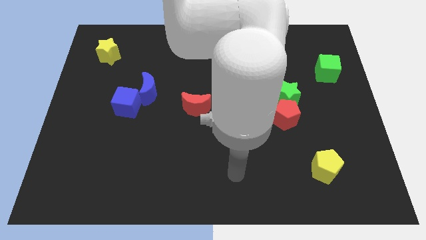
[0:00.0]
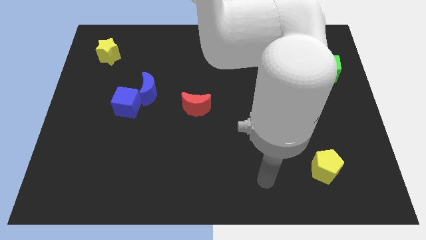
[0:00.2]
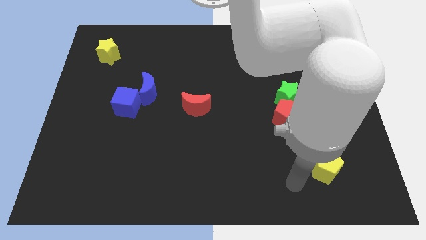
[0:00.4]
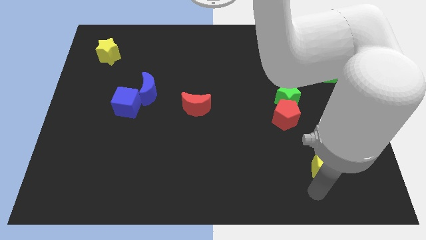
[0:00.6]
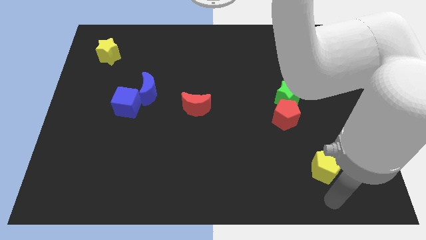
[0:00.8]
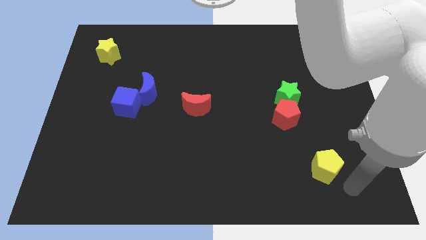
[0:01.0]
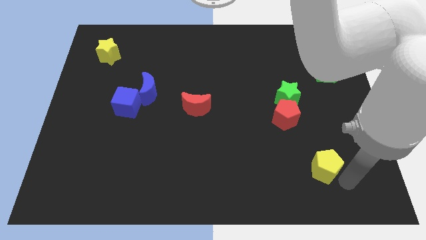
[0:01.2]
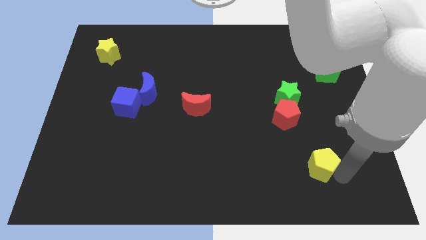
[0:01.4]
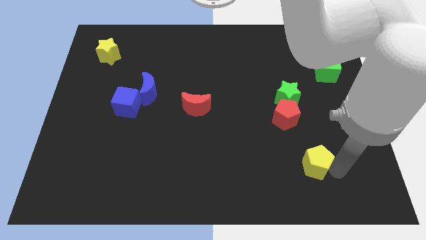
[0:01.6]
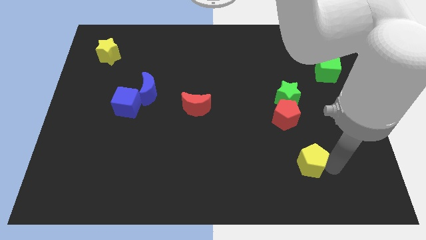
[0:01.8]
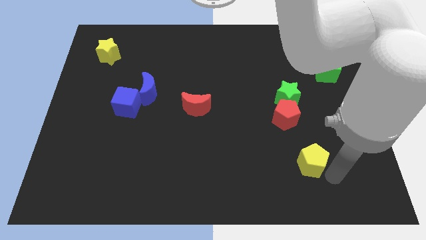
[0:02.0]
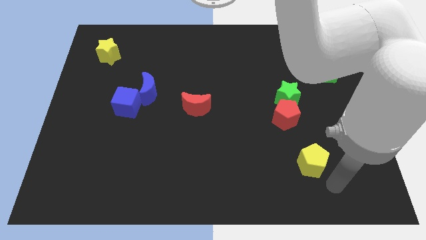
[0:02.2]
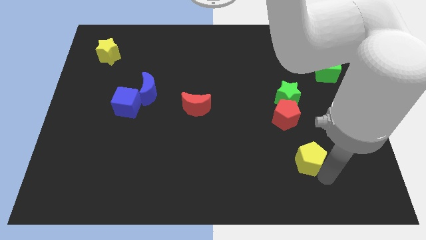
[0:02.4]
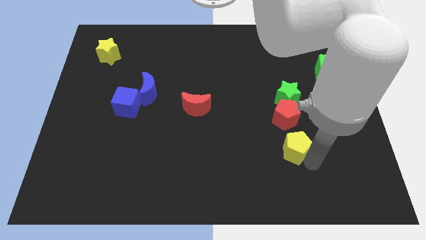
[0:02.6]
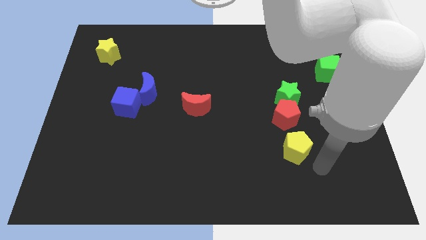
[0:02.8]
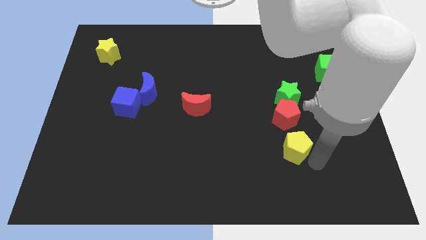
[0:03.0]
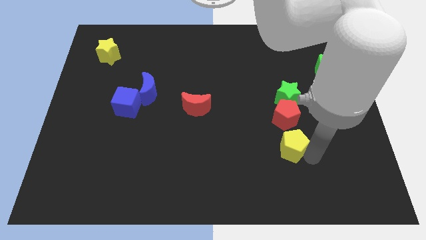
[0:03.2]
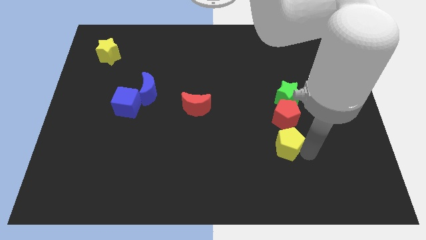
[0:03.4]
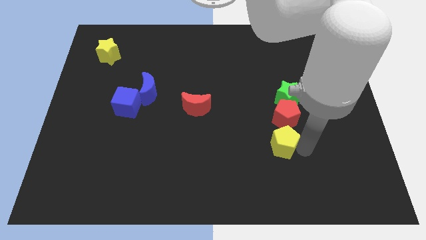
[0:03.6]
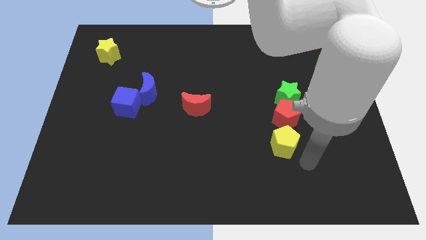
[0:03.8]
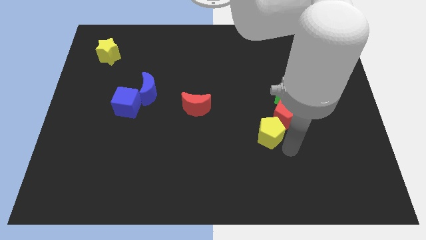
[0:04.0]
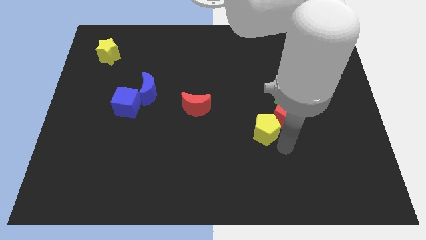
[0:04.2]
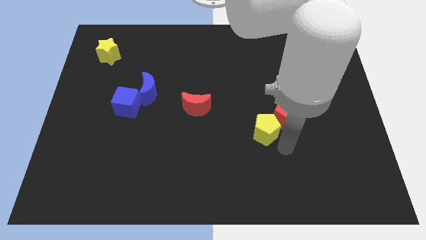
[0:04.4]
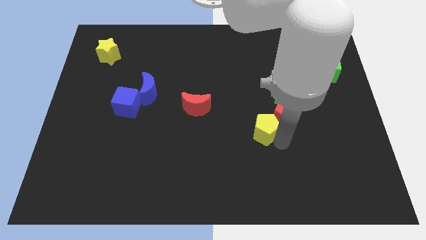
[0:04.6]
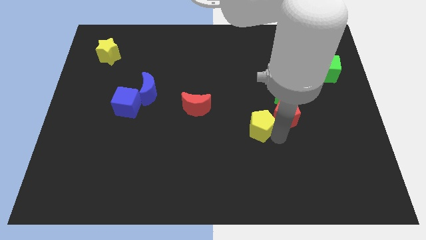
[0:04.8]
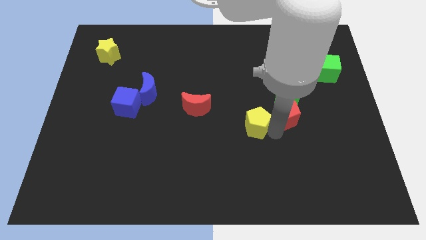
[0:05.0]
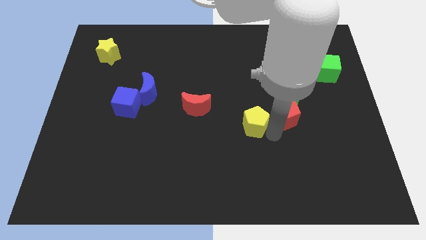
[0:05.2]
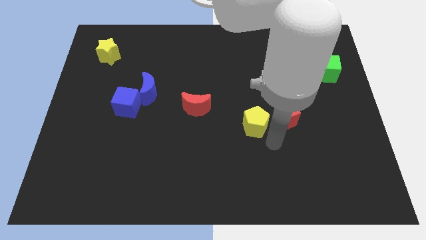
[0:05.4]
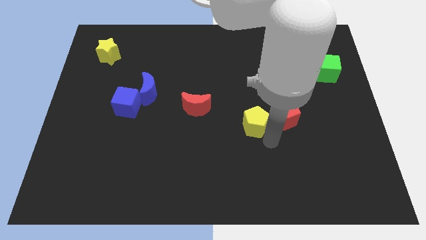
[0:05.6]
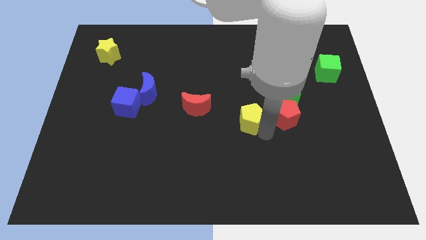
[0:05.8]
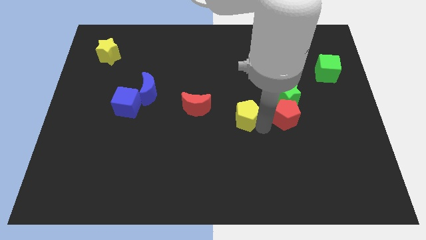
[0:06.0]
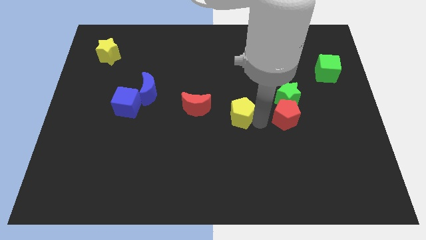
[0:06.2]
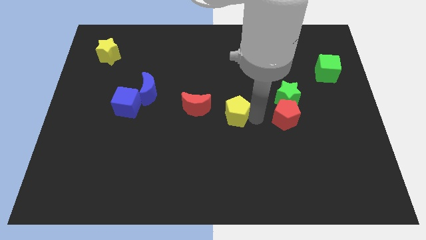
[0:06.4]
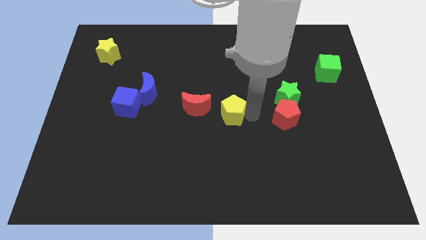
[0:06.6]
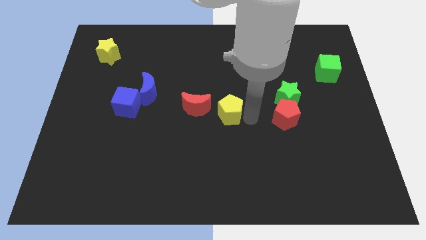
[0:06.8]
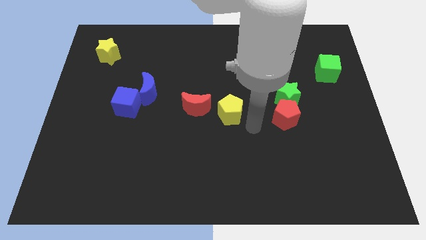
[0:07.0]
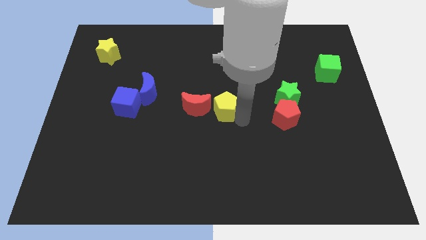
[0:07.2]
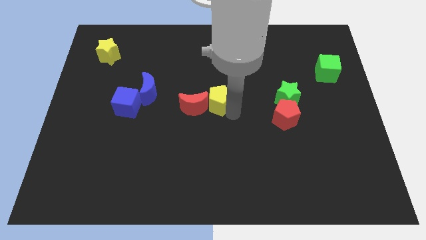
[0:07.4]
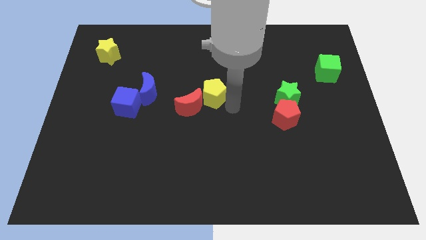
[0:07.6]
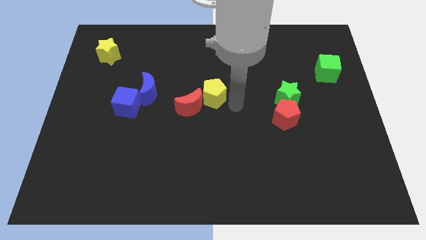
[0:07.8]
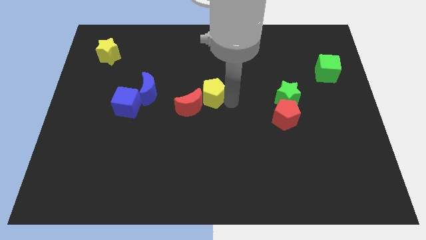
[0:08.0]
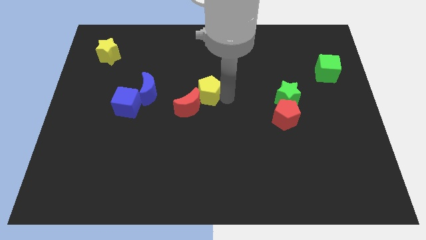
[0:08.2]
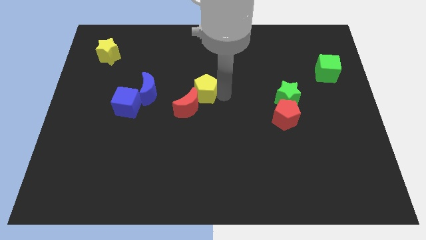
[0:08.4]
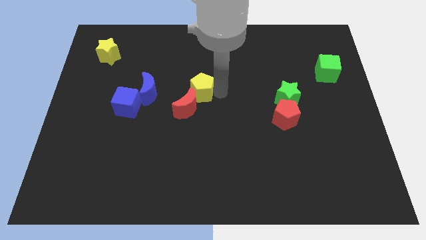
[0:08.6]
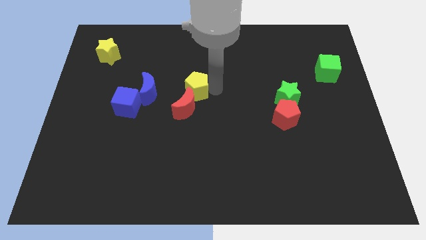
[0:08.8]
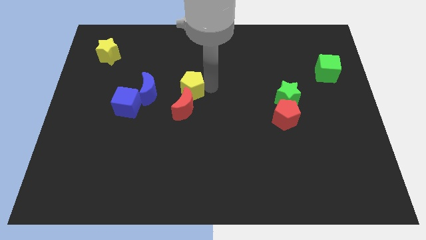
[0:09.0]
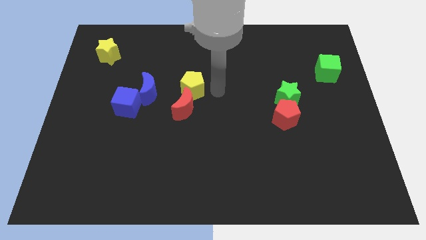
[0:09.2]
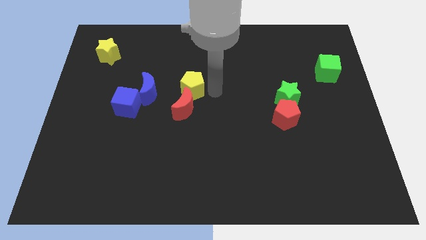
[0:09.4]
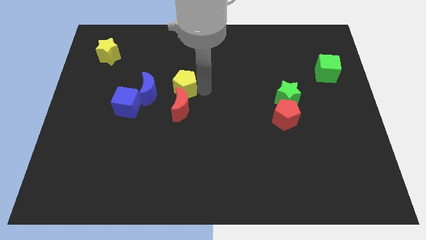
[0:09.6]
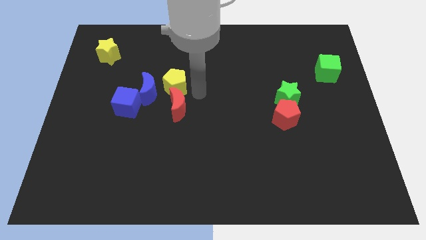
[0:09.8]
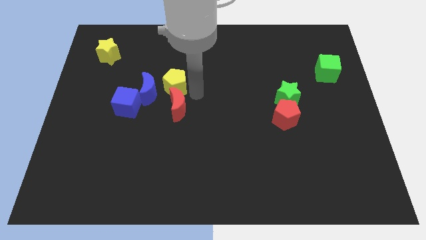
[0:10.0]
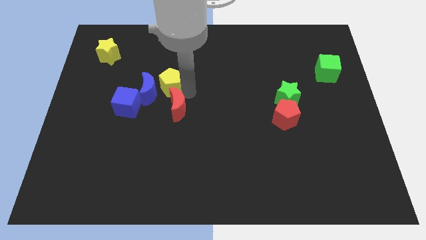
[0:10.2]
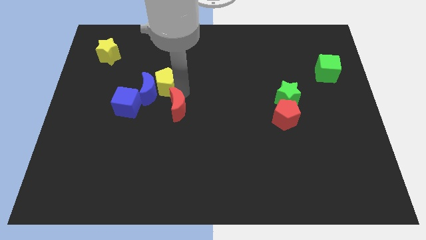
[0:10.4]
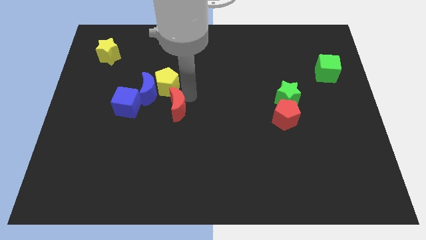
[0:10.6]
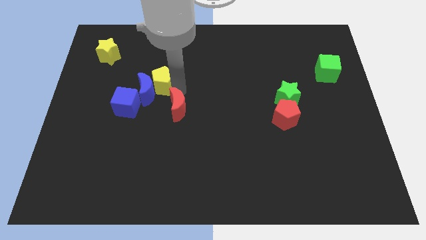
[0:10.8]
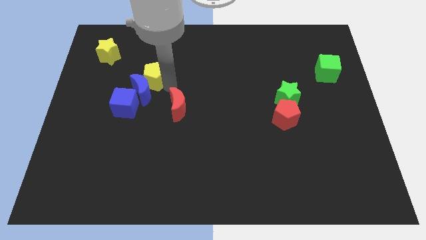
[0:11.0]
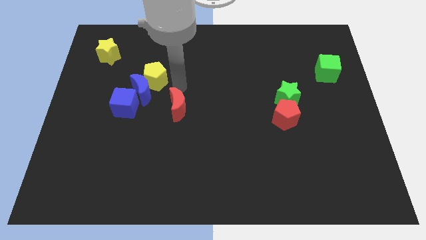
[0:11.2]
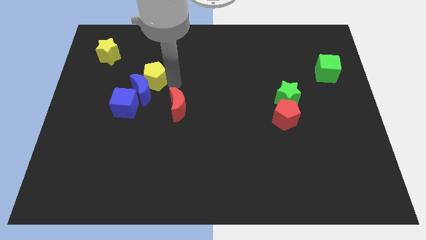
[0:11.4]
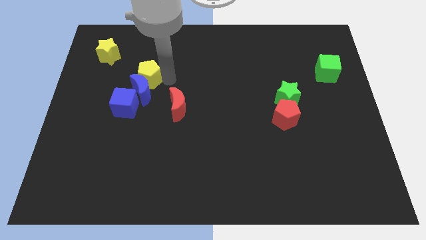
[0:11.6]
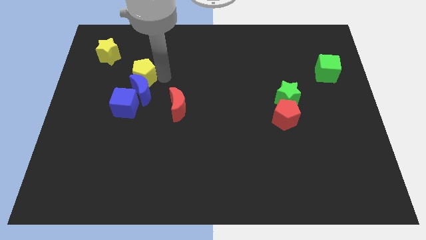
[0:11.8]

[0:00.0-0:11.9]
push the yellow pentagon diagonally down and to the right of the yellow star

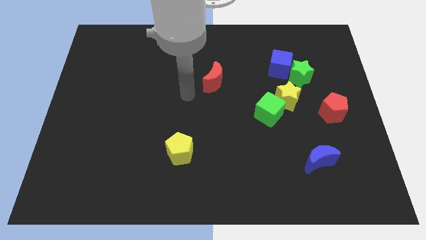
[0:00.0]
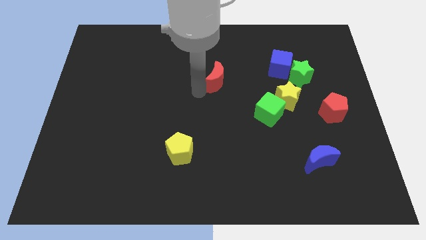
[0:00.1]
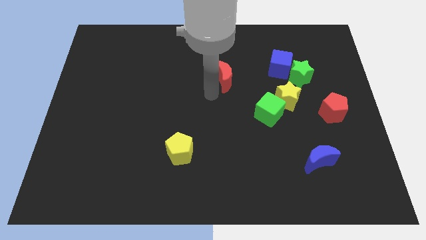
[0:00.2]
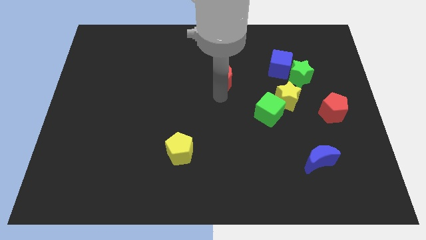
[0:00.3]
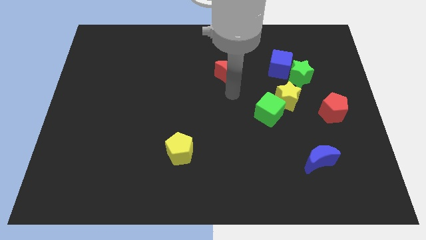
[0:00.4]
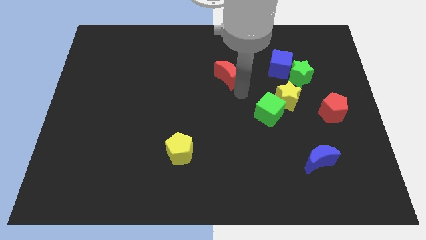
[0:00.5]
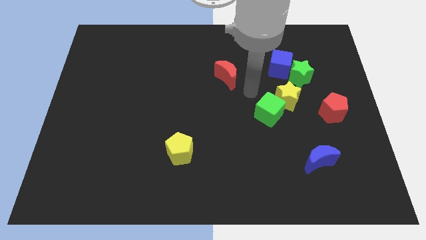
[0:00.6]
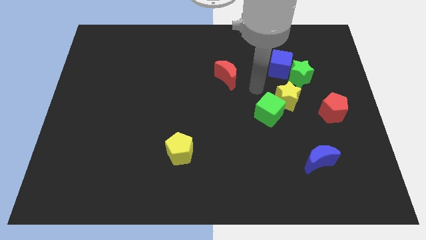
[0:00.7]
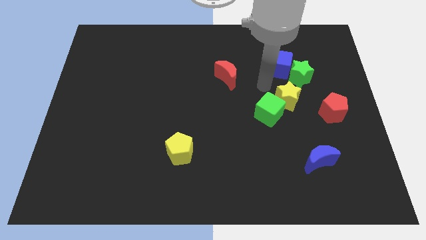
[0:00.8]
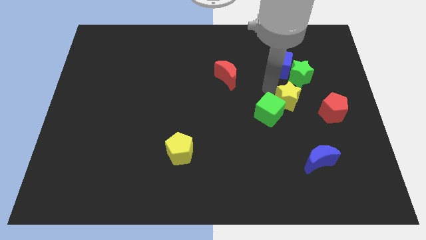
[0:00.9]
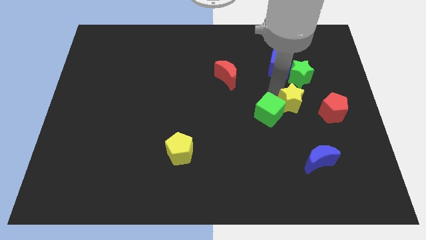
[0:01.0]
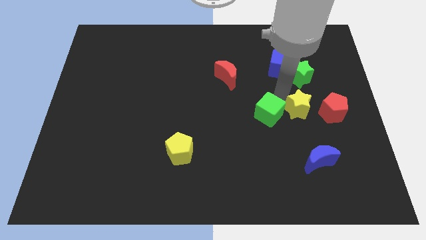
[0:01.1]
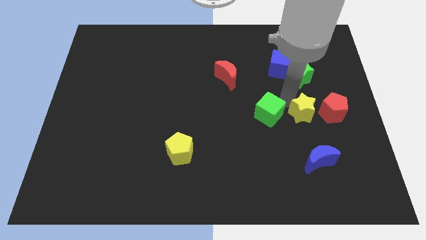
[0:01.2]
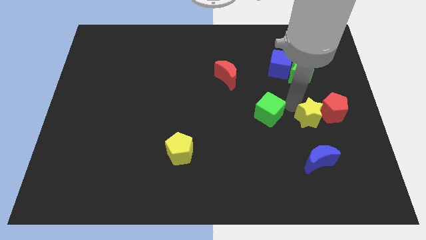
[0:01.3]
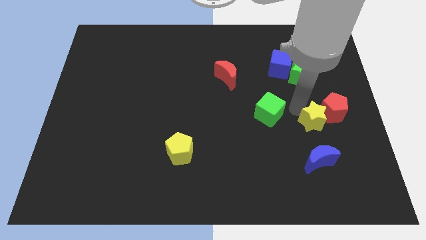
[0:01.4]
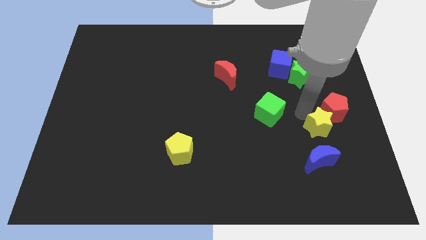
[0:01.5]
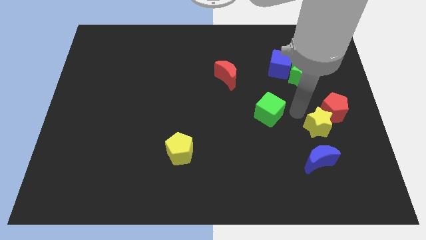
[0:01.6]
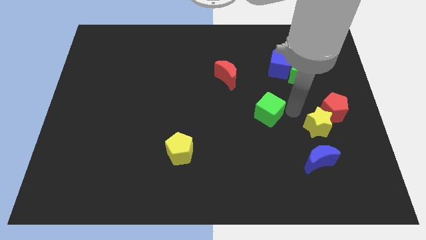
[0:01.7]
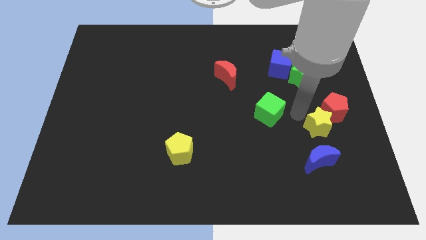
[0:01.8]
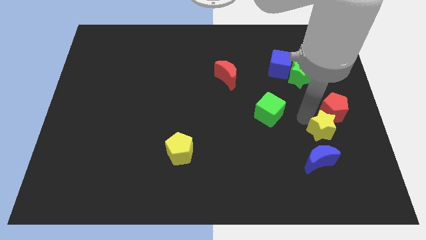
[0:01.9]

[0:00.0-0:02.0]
move the yellow star diagonally up and to the right of the blue moon

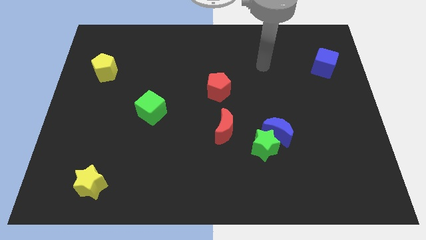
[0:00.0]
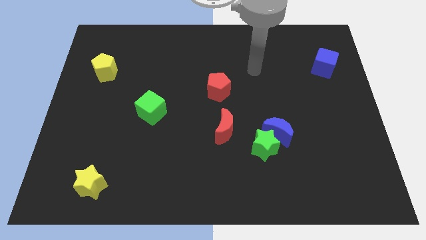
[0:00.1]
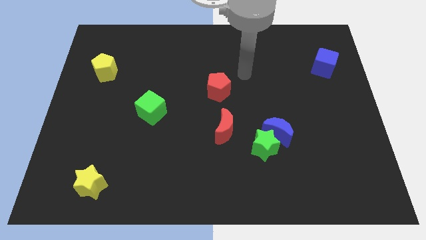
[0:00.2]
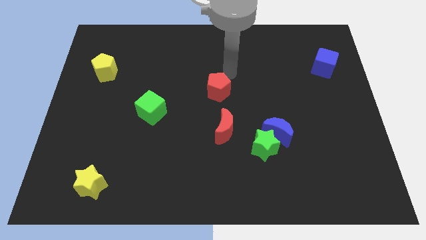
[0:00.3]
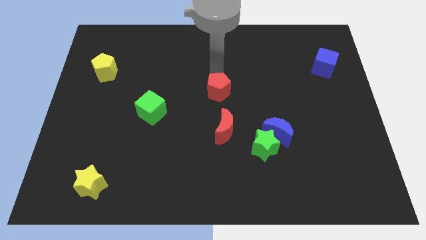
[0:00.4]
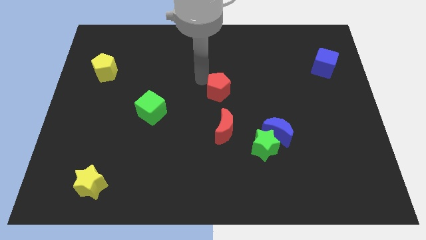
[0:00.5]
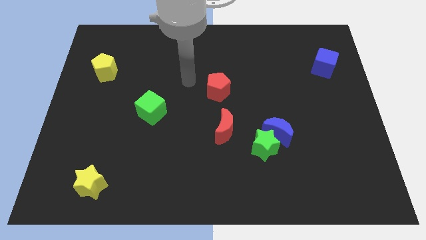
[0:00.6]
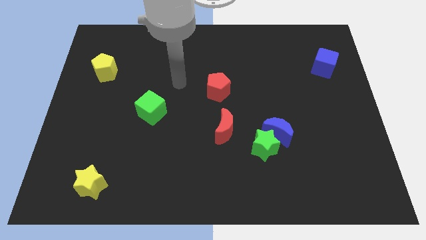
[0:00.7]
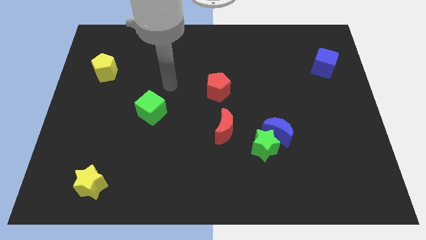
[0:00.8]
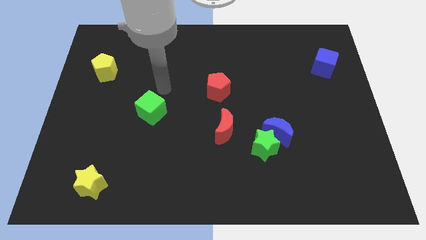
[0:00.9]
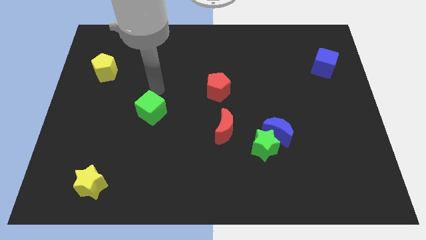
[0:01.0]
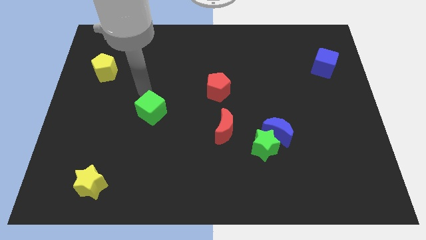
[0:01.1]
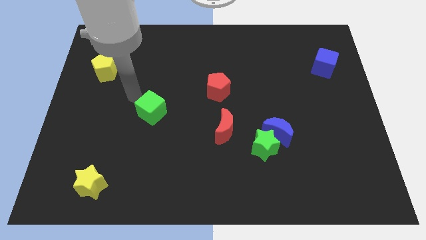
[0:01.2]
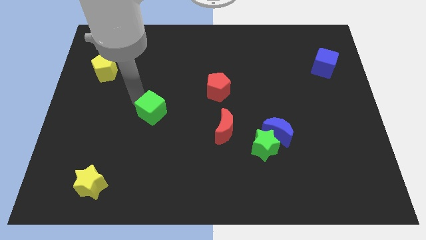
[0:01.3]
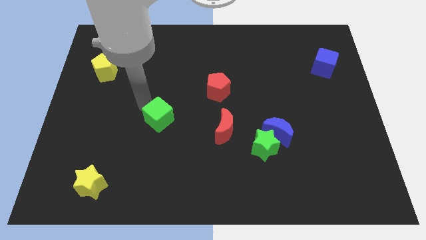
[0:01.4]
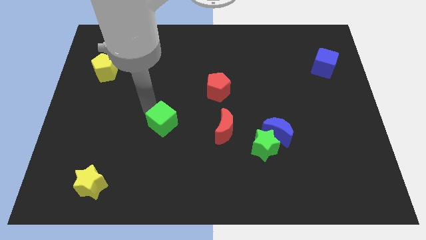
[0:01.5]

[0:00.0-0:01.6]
move the green cube to the left side of the red moon
